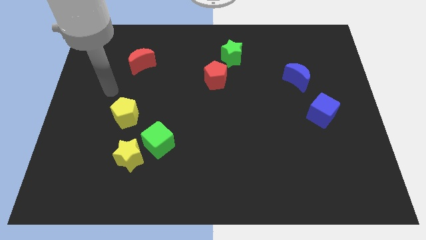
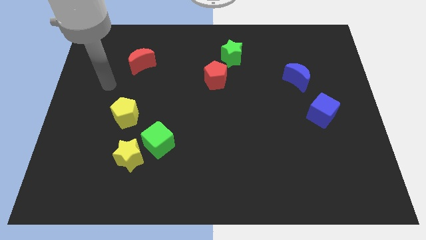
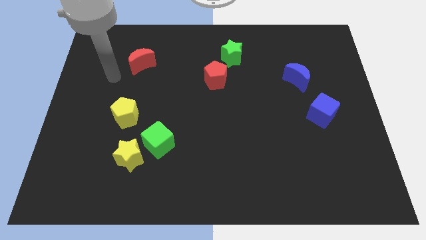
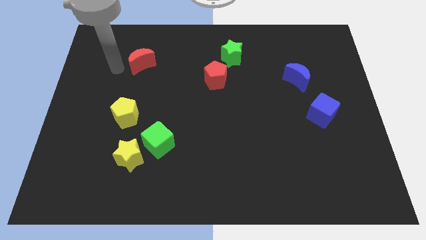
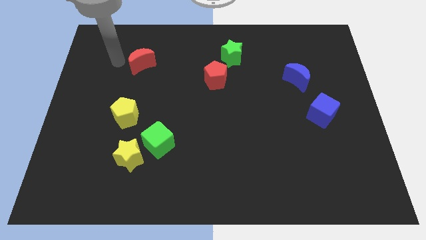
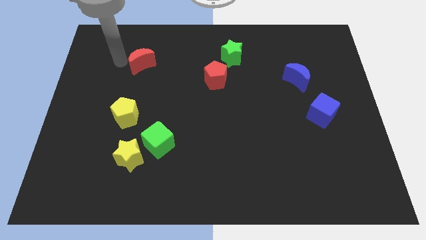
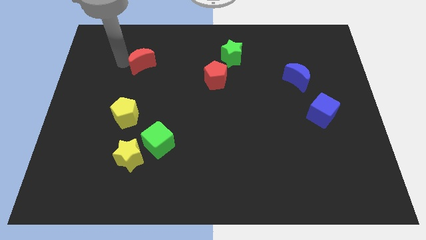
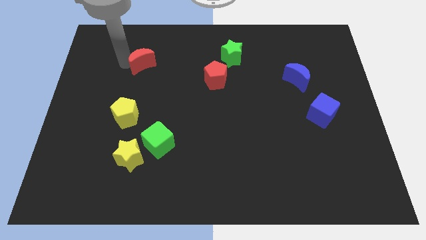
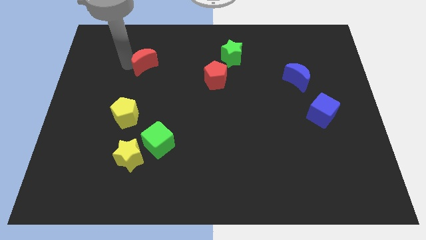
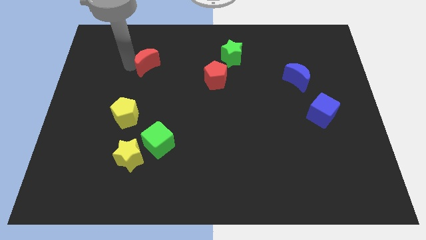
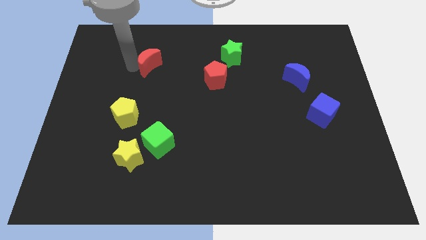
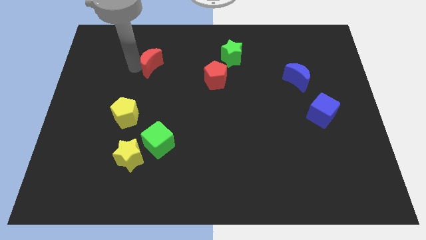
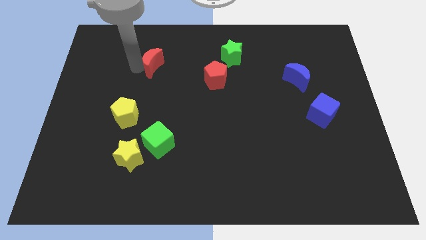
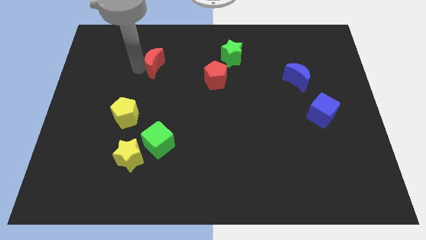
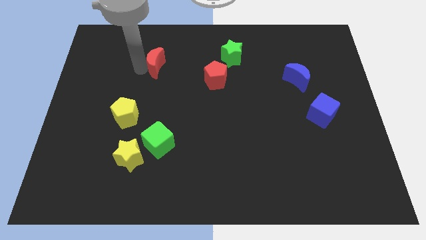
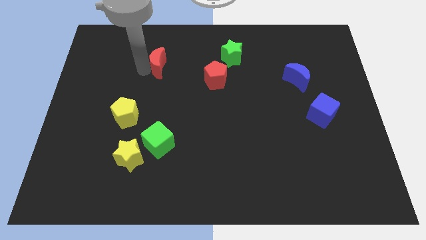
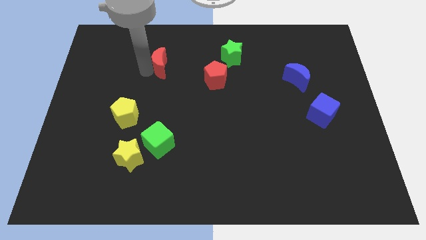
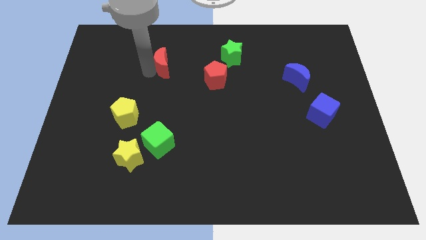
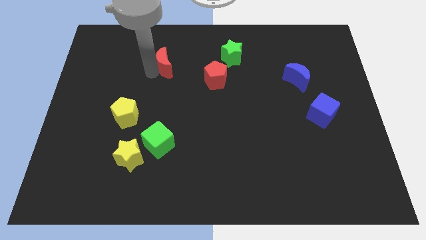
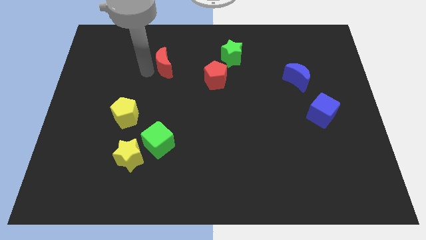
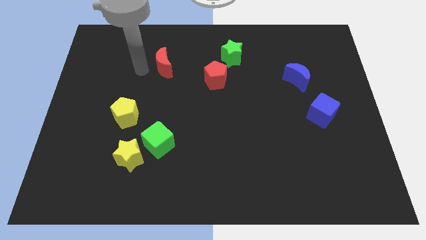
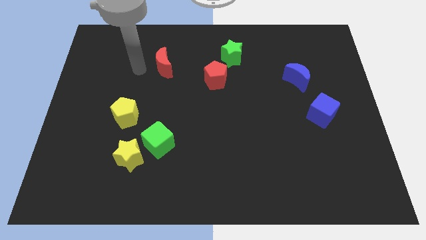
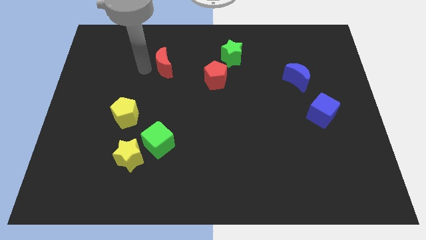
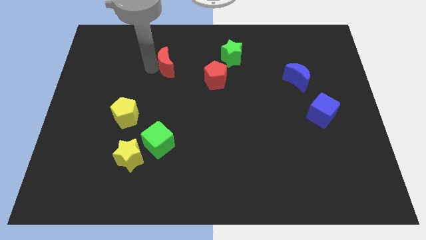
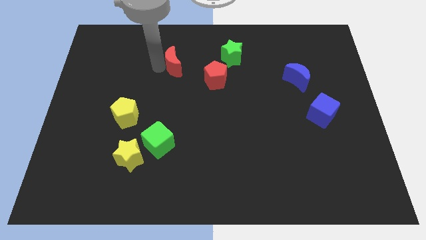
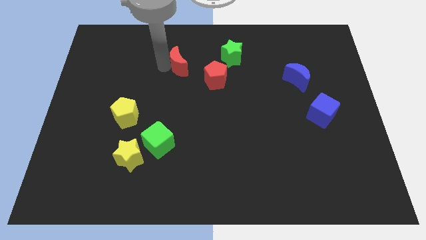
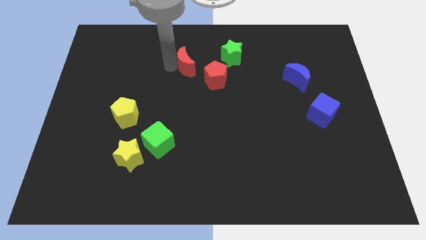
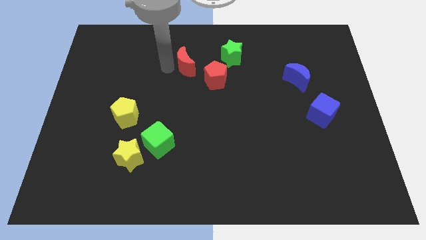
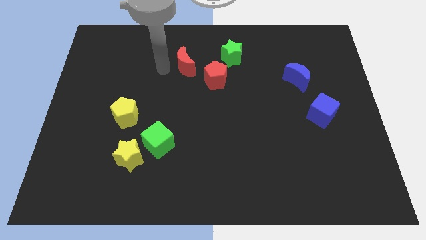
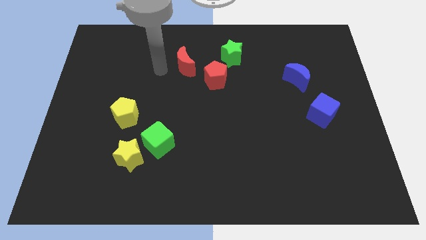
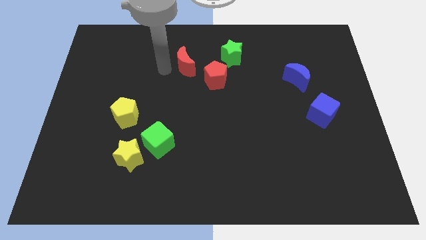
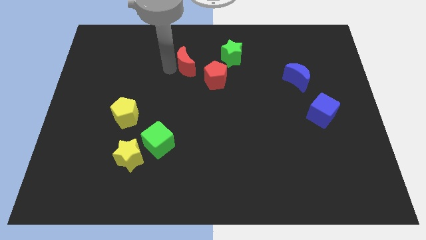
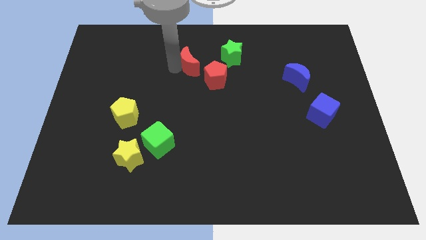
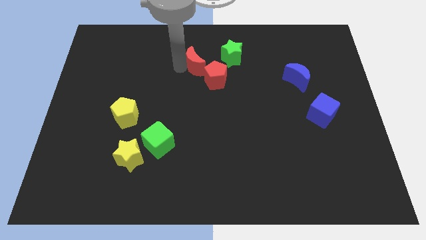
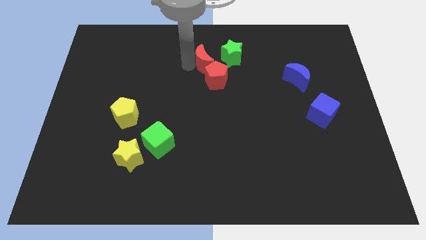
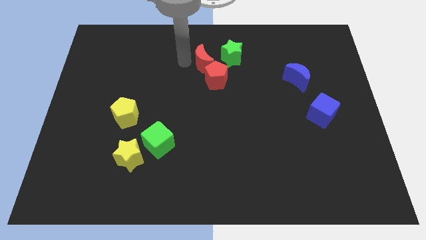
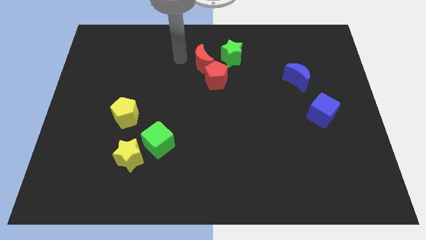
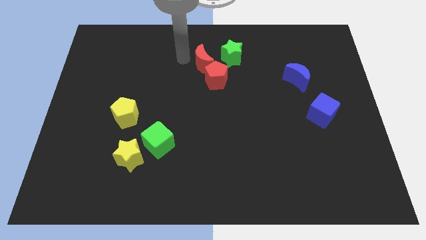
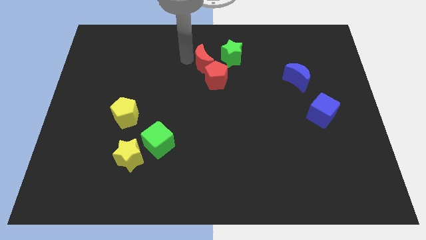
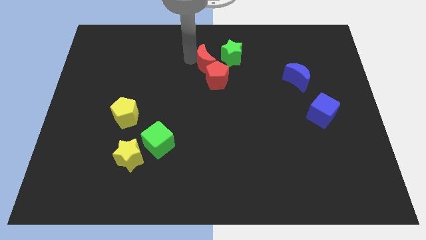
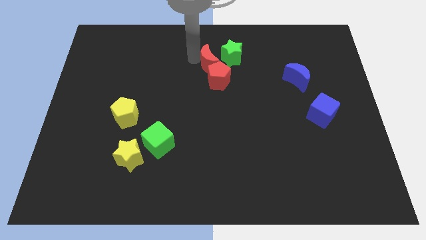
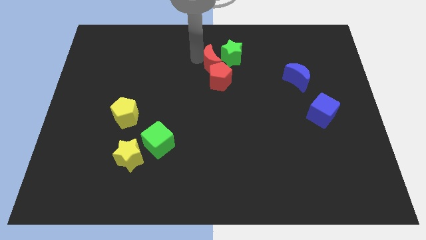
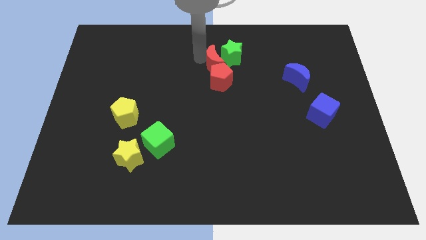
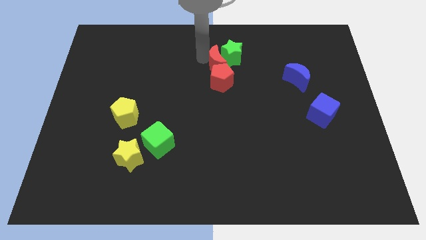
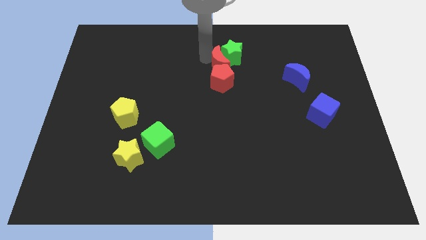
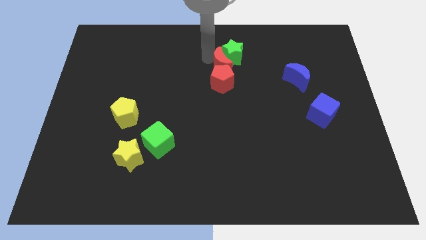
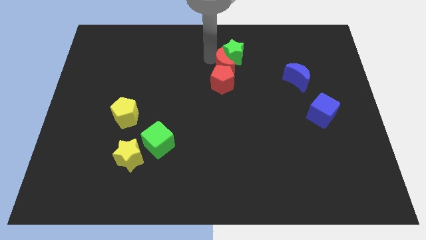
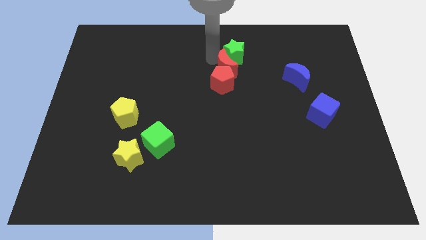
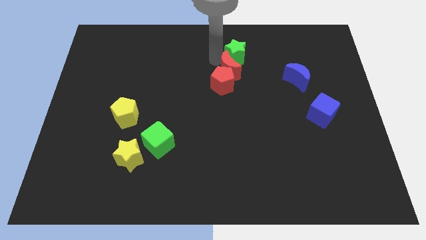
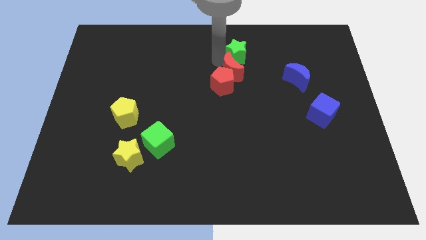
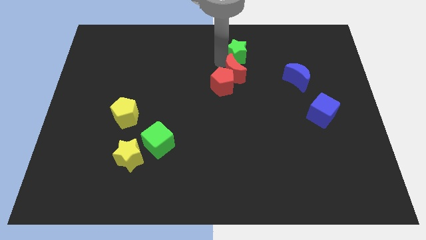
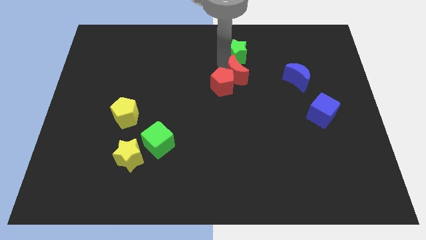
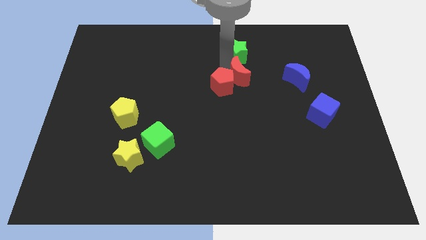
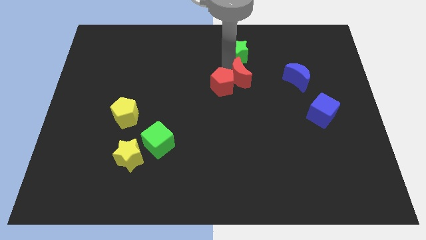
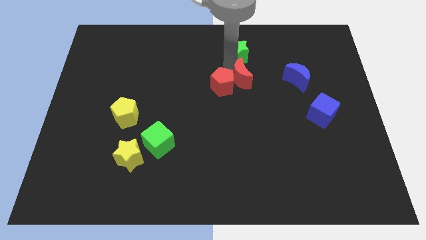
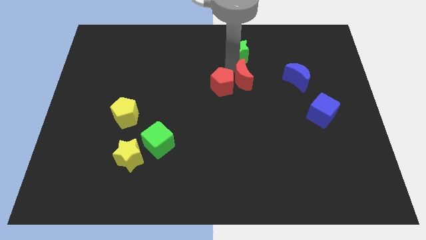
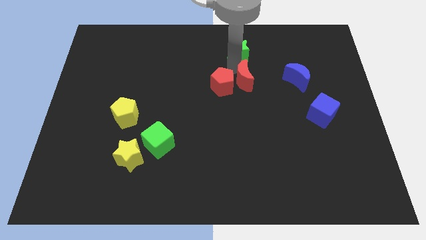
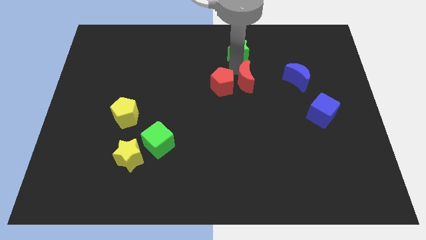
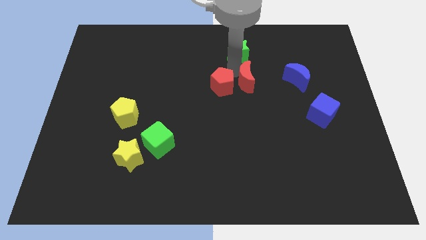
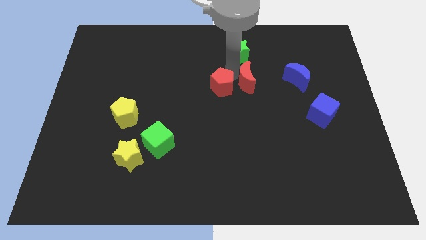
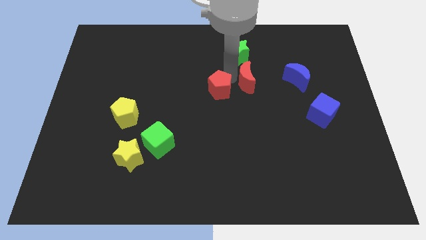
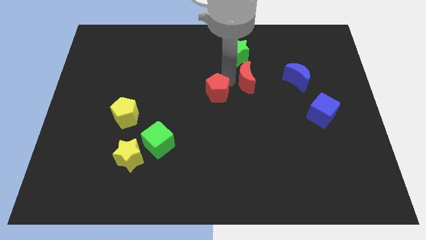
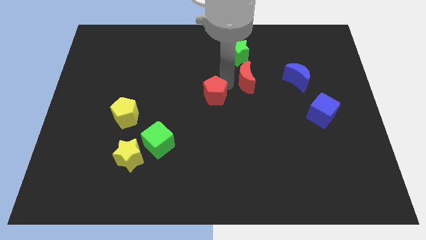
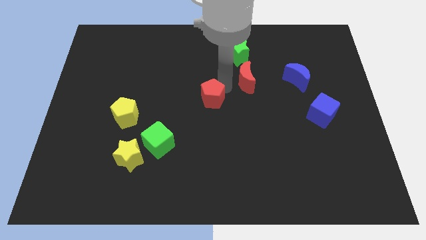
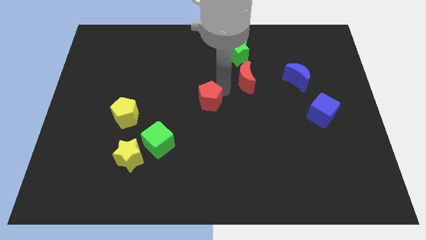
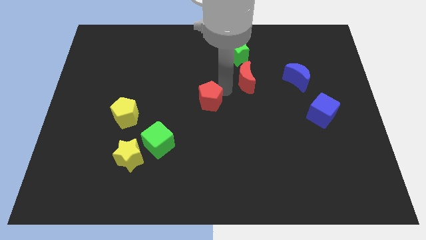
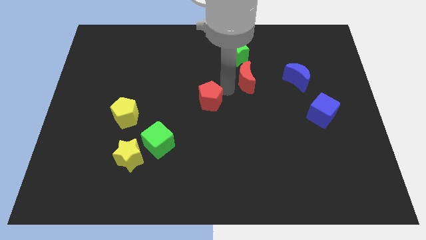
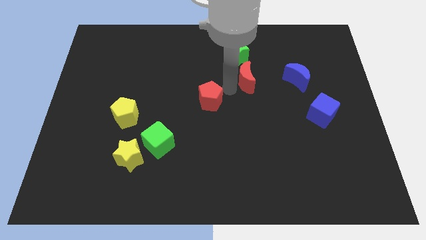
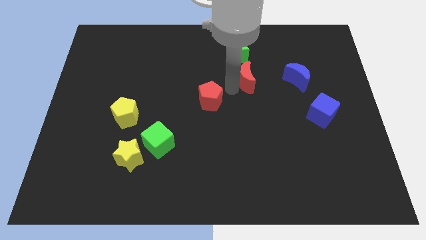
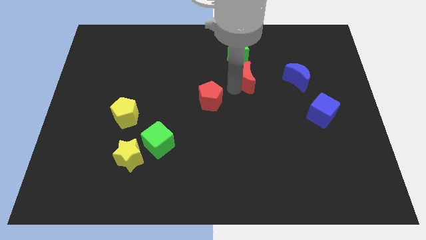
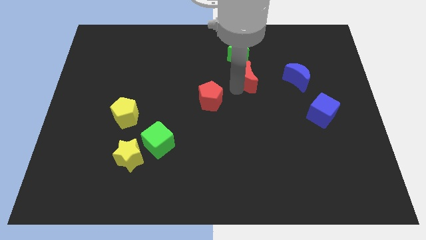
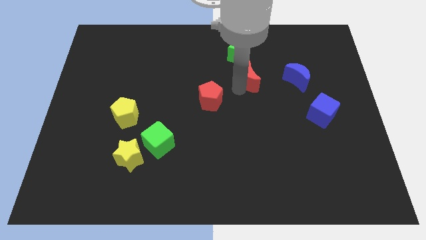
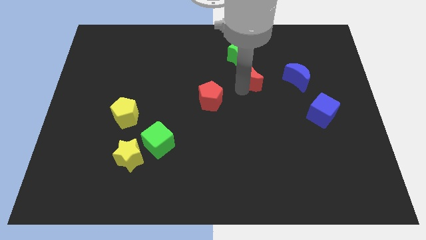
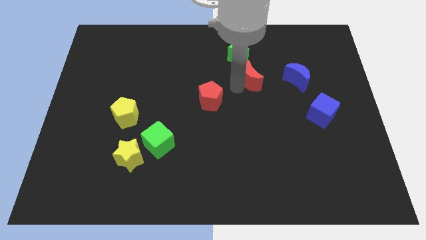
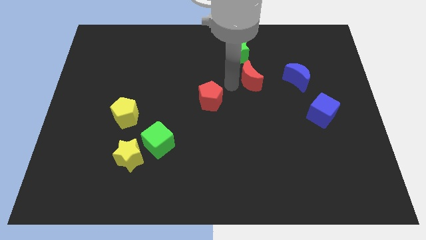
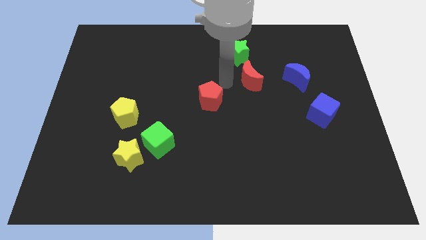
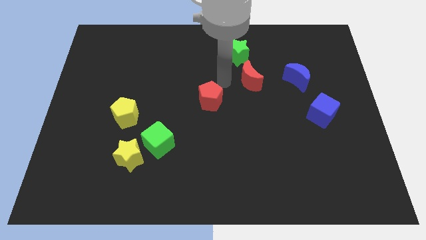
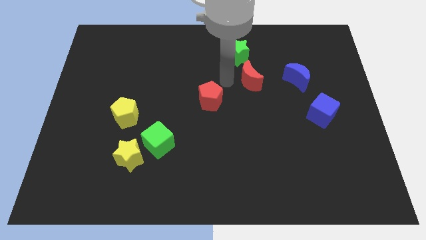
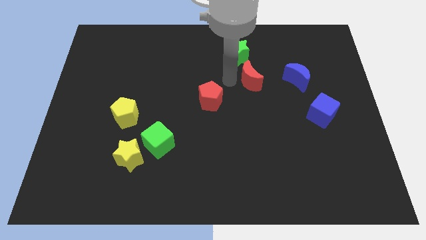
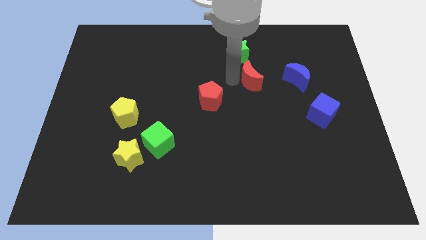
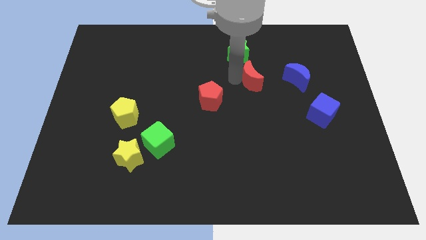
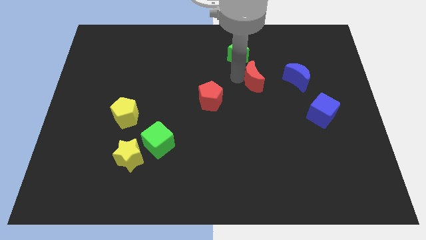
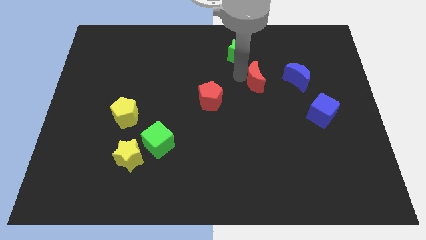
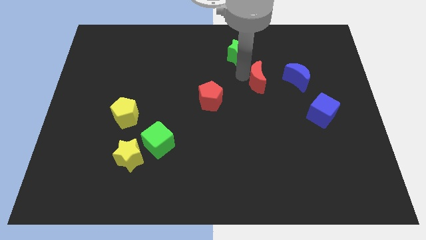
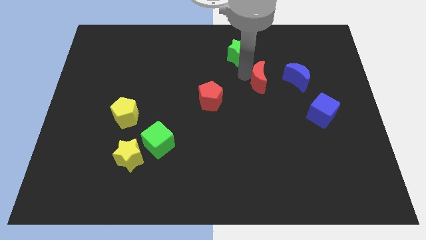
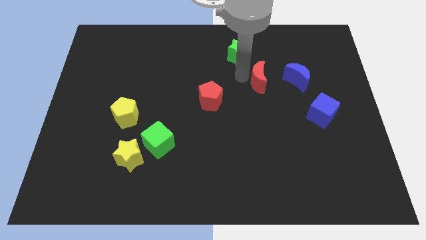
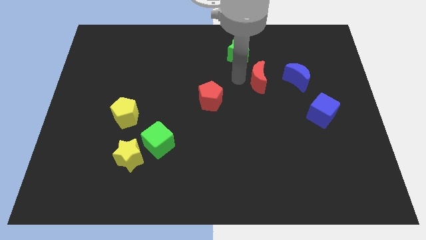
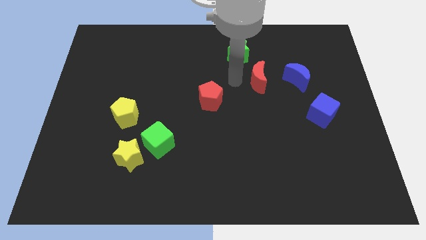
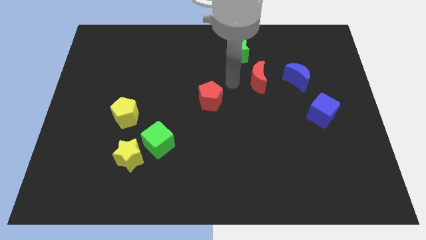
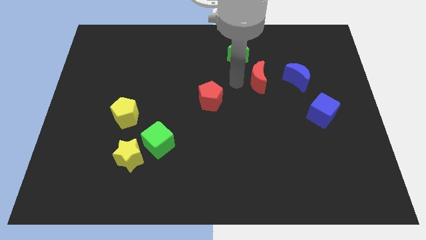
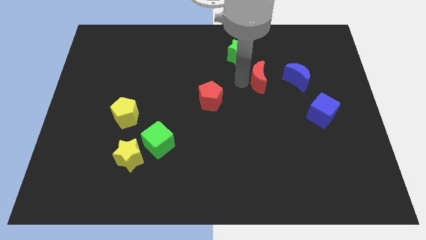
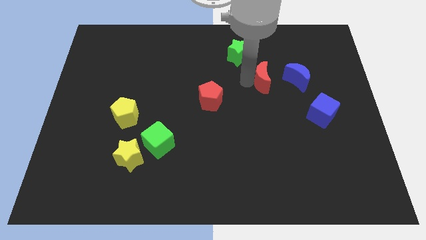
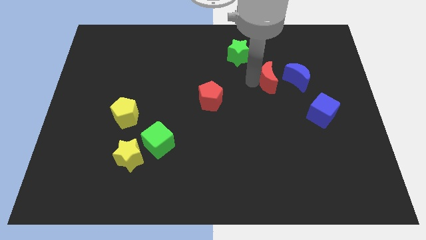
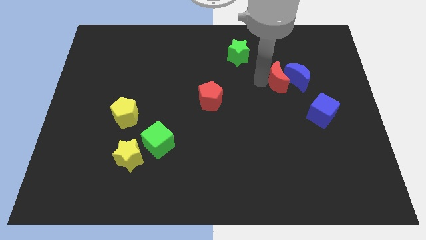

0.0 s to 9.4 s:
move the red moon next to the blue moon
